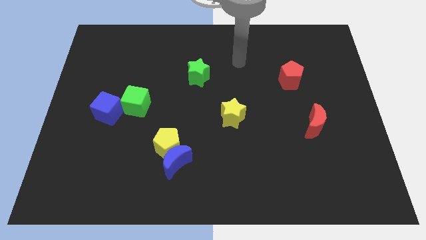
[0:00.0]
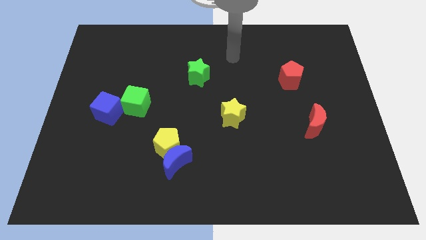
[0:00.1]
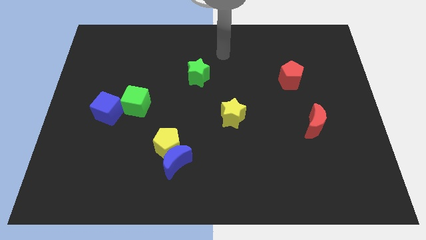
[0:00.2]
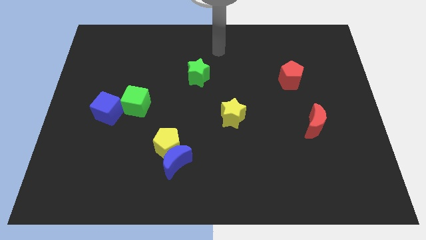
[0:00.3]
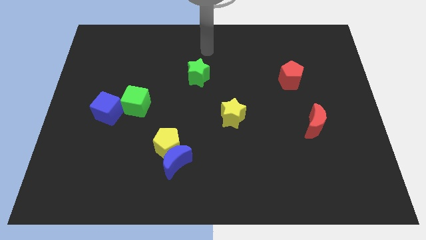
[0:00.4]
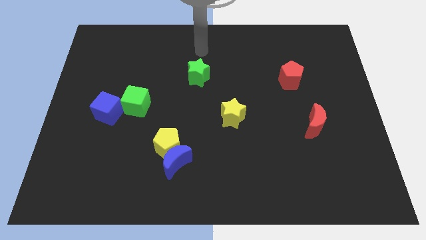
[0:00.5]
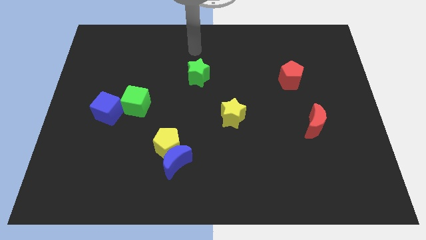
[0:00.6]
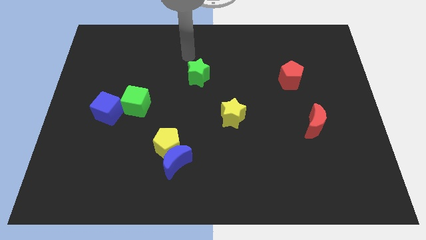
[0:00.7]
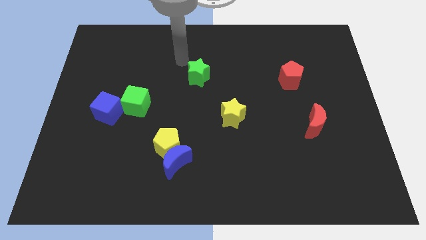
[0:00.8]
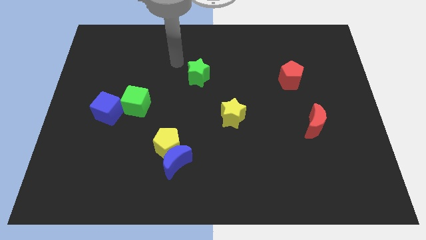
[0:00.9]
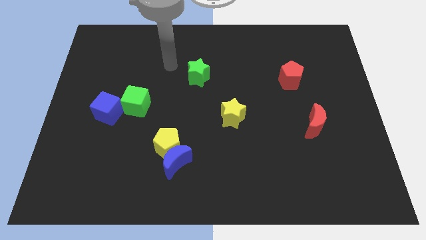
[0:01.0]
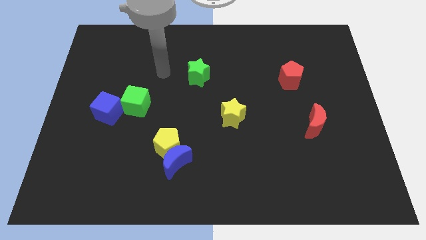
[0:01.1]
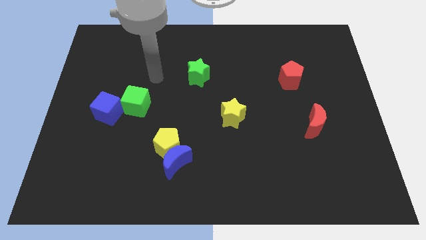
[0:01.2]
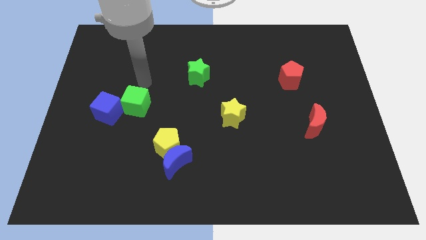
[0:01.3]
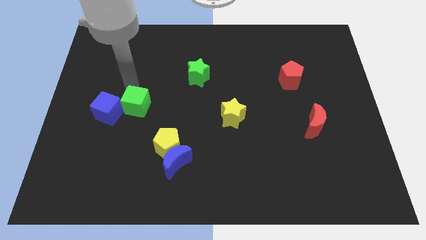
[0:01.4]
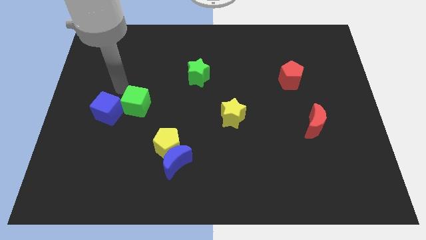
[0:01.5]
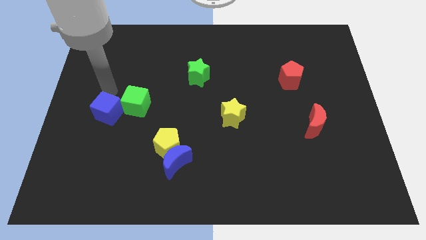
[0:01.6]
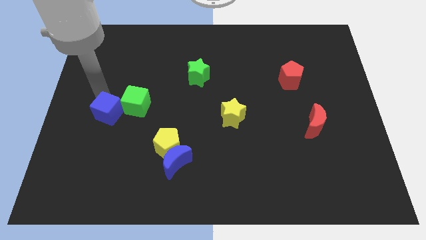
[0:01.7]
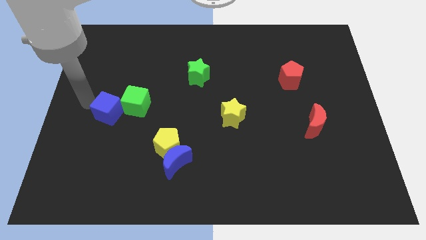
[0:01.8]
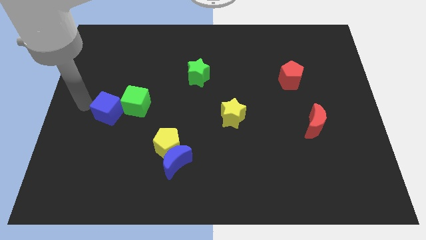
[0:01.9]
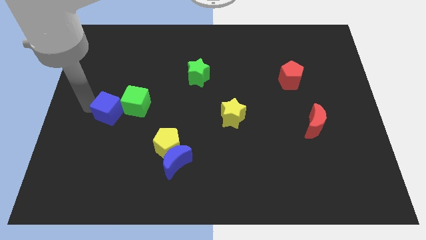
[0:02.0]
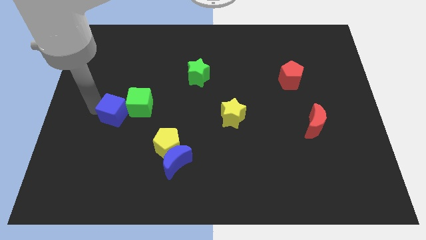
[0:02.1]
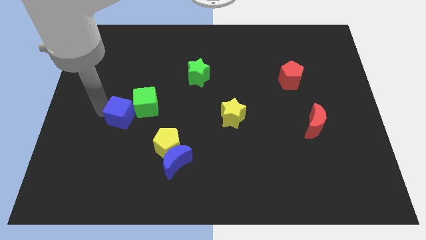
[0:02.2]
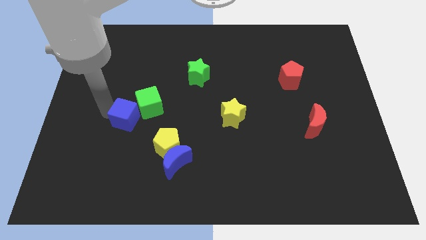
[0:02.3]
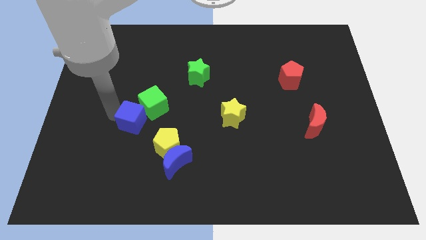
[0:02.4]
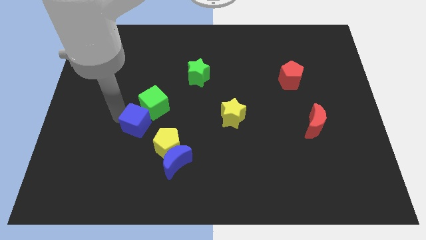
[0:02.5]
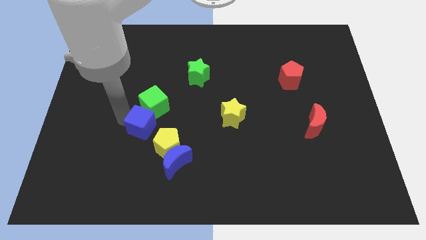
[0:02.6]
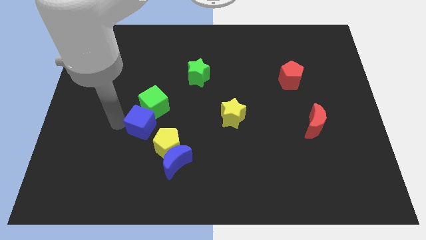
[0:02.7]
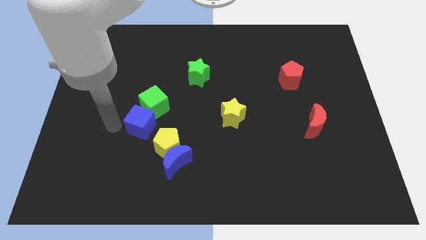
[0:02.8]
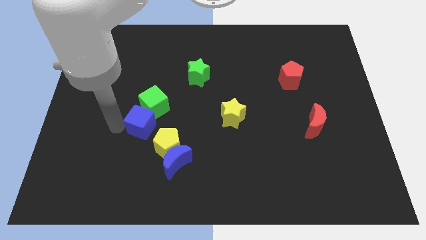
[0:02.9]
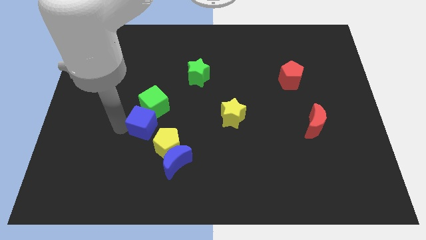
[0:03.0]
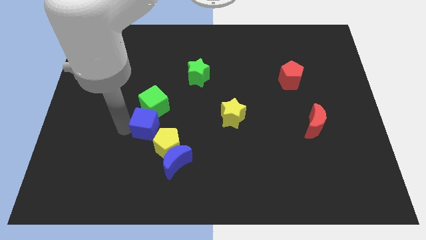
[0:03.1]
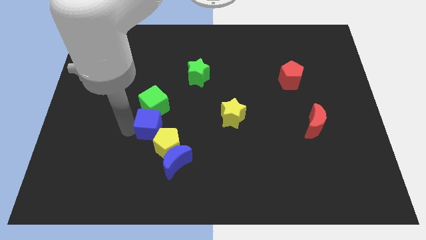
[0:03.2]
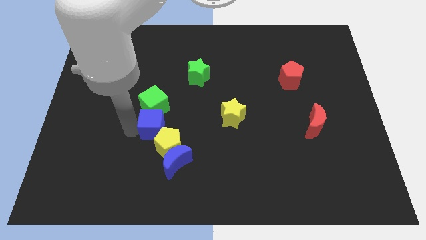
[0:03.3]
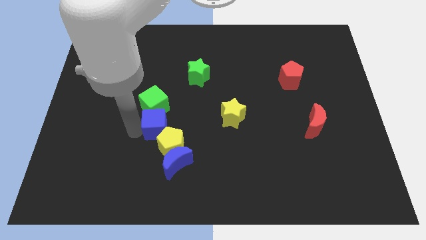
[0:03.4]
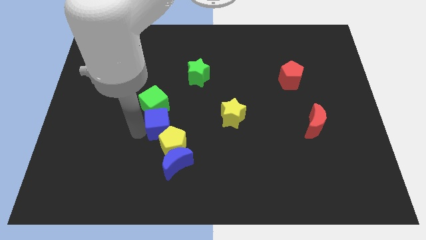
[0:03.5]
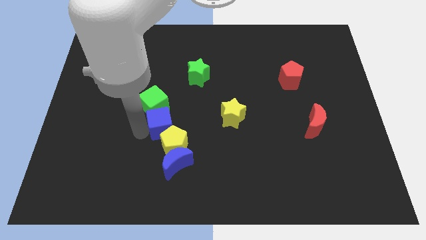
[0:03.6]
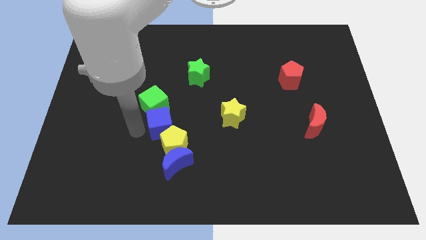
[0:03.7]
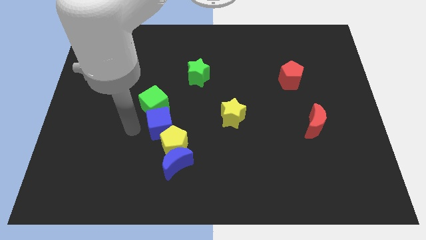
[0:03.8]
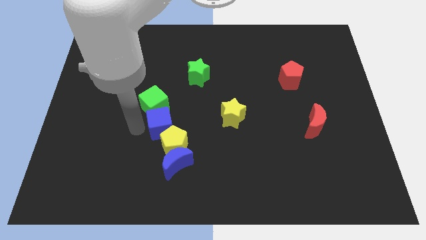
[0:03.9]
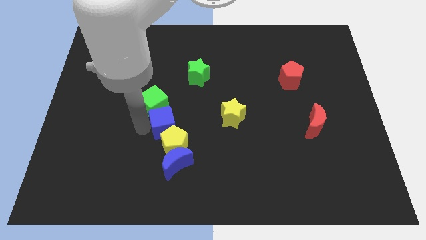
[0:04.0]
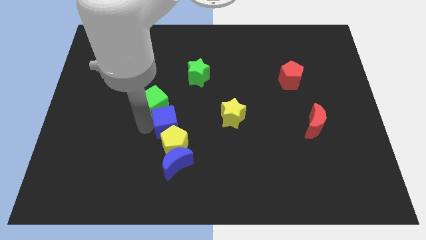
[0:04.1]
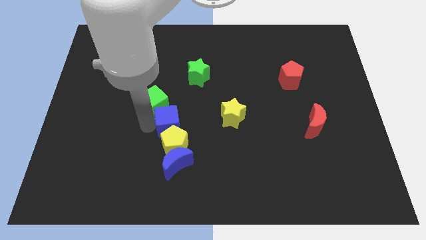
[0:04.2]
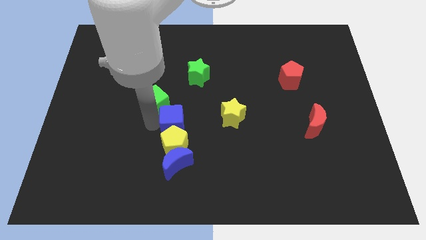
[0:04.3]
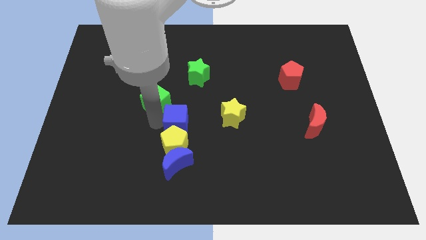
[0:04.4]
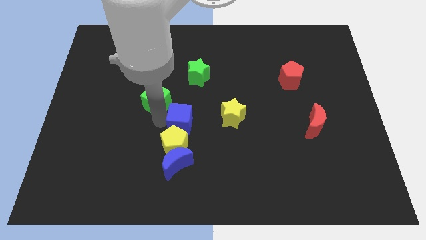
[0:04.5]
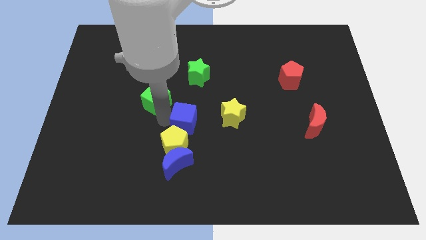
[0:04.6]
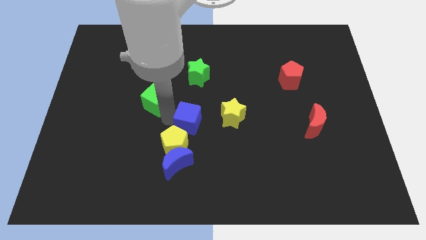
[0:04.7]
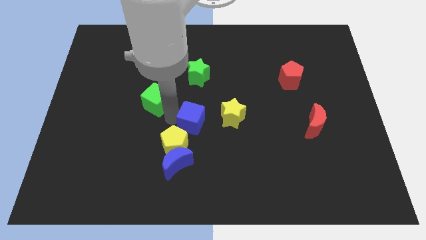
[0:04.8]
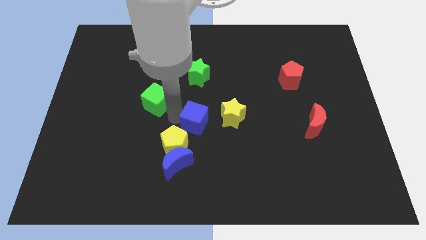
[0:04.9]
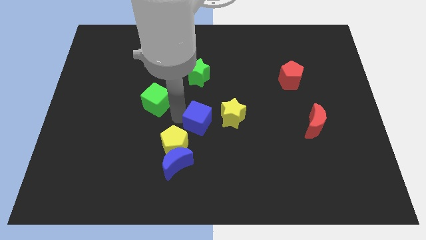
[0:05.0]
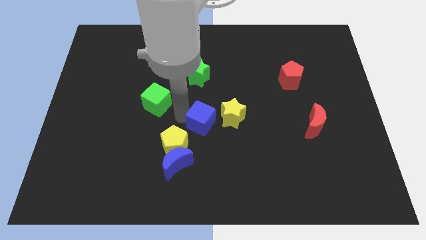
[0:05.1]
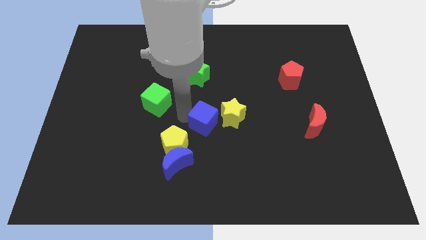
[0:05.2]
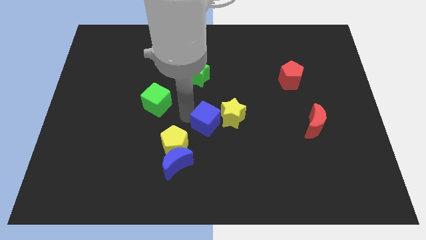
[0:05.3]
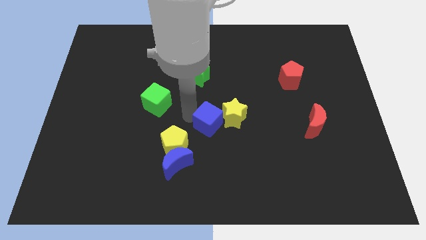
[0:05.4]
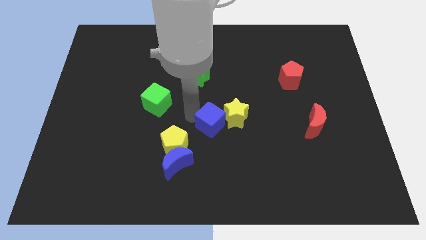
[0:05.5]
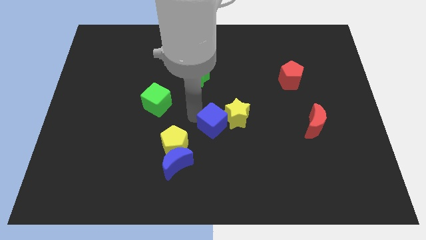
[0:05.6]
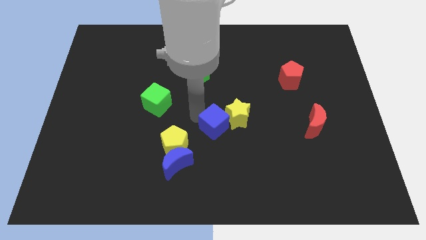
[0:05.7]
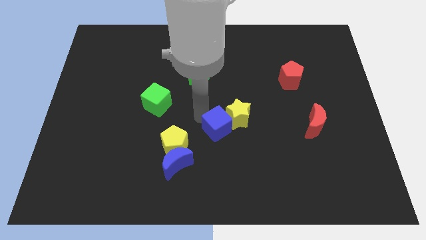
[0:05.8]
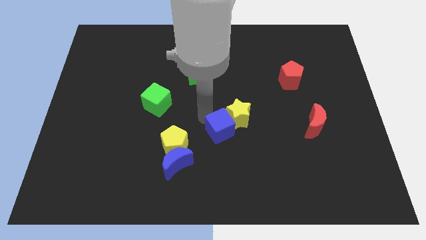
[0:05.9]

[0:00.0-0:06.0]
move the blue cube to the bottom of the yellow star

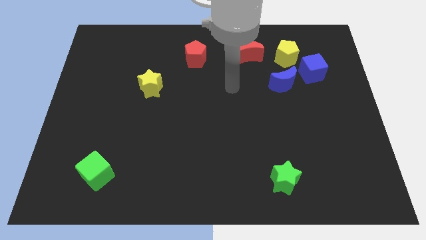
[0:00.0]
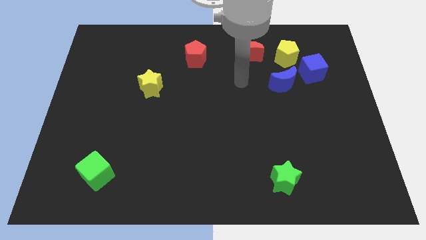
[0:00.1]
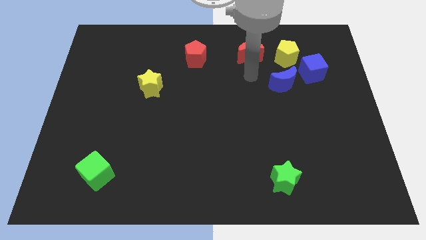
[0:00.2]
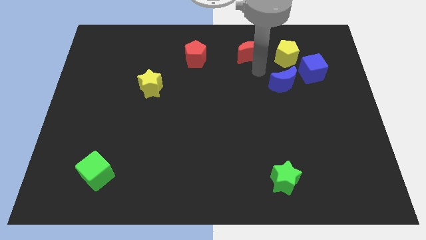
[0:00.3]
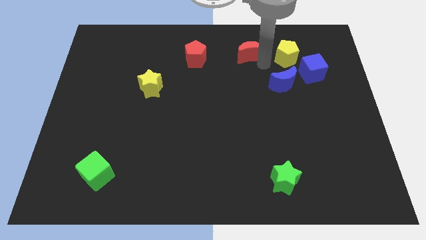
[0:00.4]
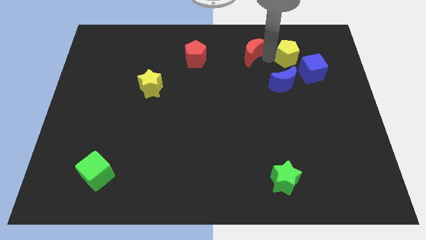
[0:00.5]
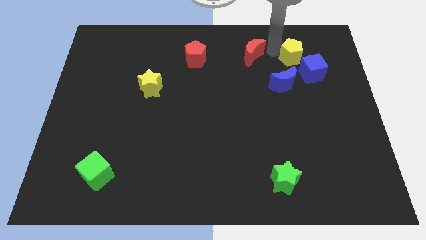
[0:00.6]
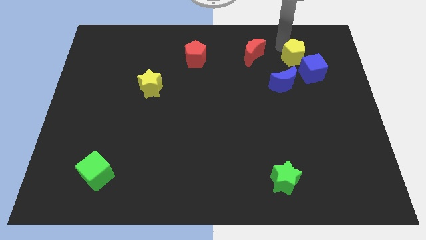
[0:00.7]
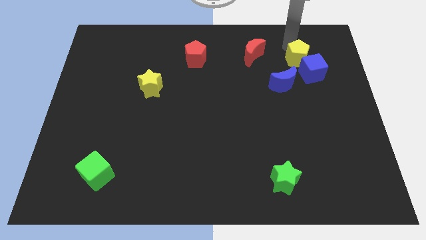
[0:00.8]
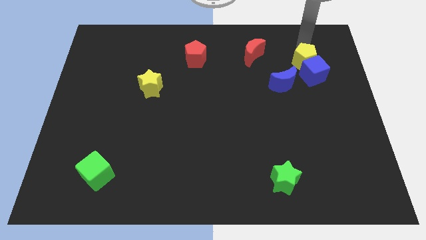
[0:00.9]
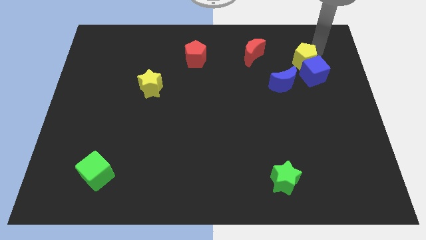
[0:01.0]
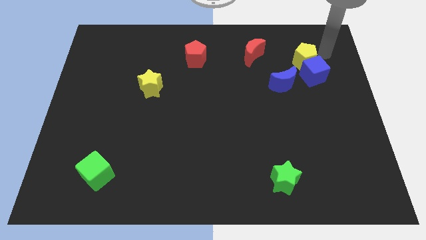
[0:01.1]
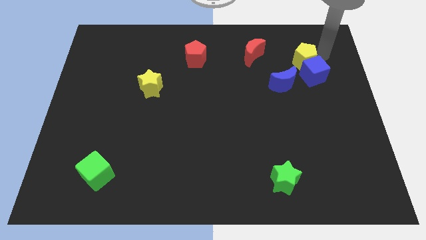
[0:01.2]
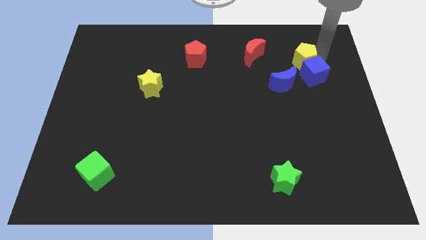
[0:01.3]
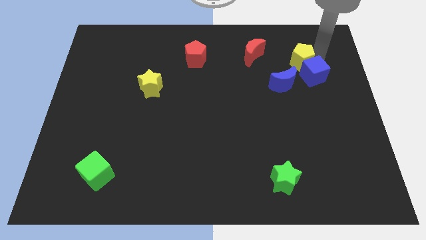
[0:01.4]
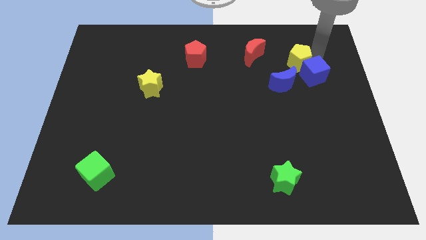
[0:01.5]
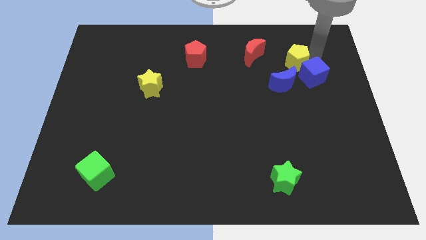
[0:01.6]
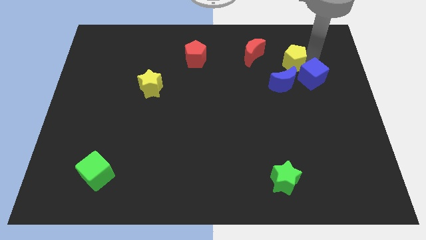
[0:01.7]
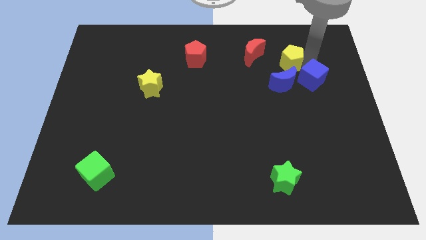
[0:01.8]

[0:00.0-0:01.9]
slide the yellow pentagon to the bottom right of the red moon

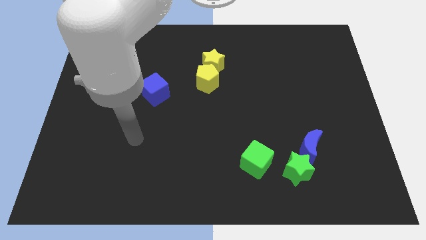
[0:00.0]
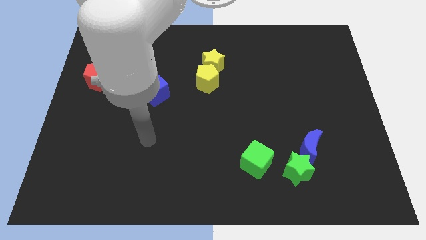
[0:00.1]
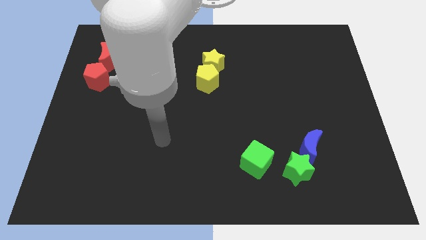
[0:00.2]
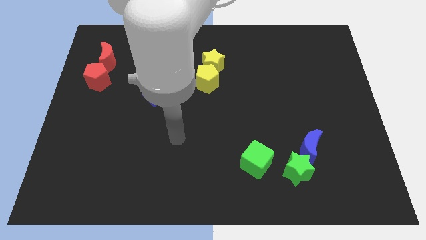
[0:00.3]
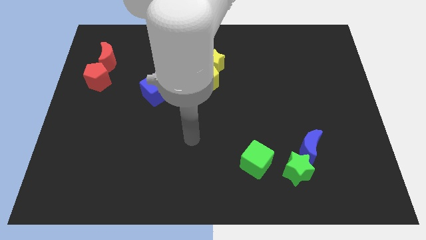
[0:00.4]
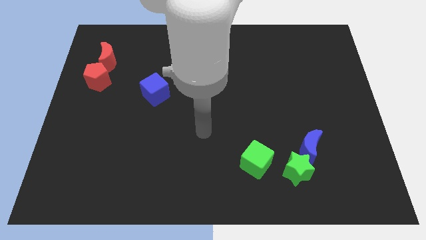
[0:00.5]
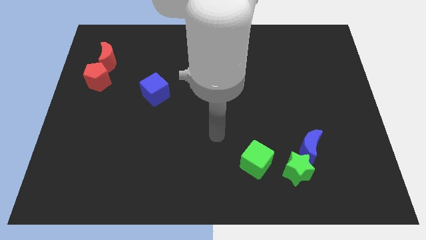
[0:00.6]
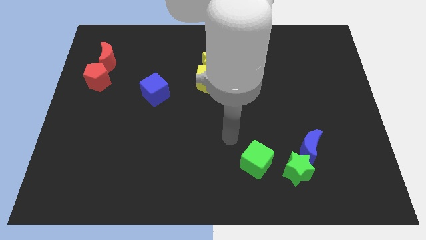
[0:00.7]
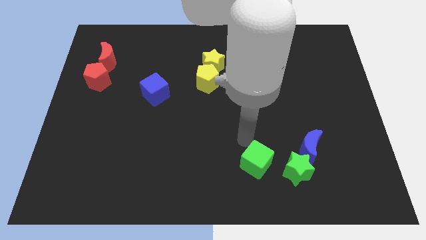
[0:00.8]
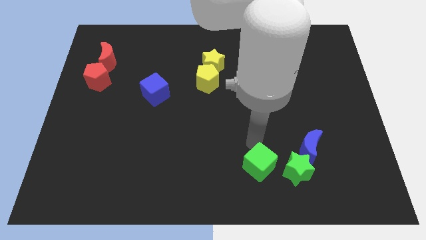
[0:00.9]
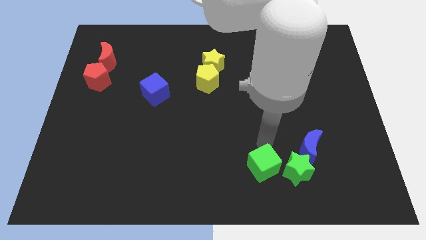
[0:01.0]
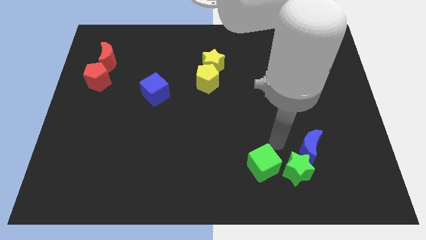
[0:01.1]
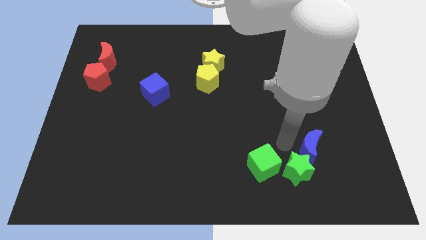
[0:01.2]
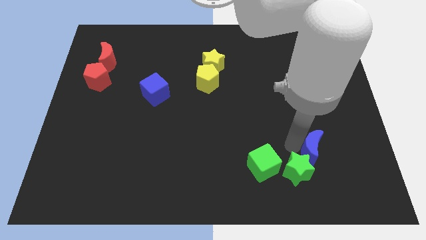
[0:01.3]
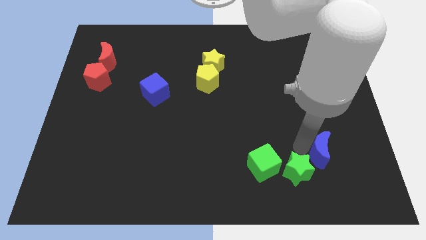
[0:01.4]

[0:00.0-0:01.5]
put the blue moon just right of the green star
